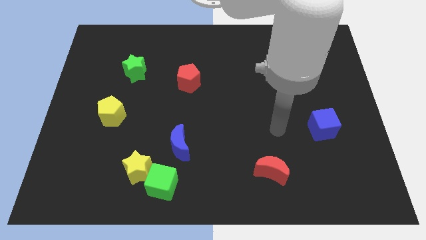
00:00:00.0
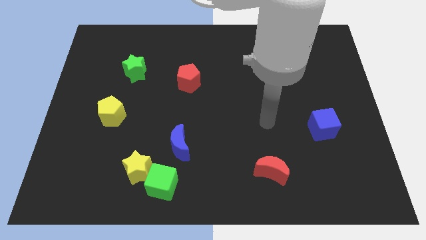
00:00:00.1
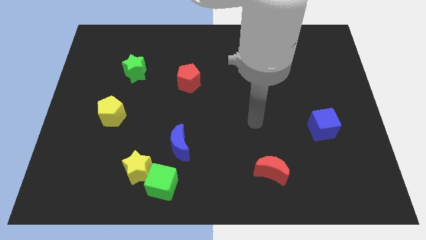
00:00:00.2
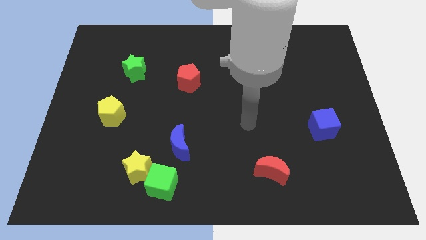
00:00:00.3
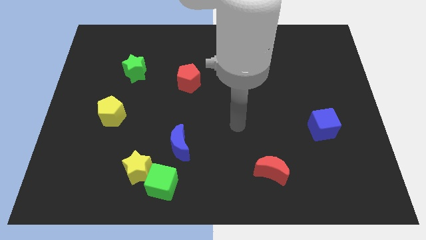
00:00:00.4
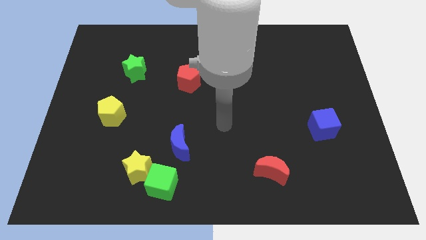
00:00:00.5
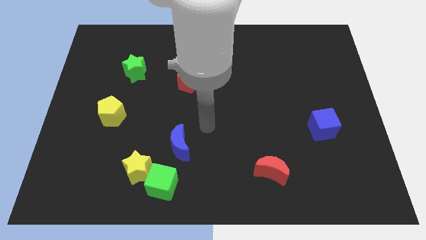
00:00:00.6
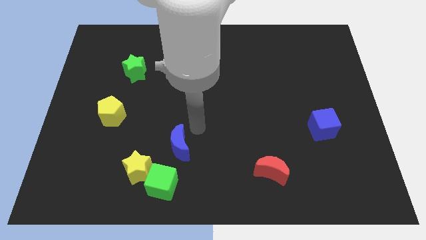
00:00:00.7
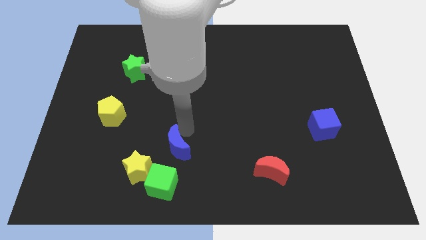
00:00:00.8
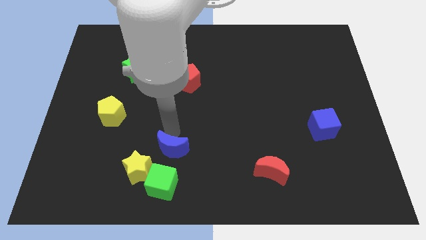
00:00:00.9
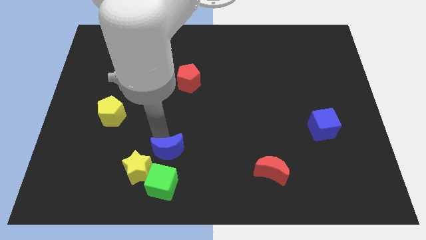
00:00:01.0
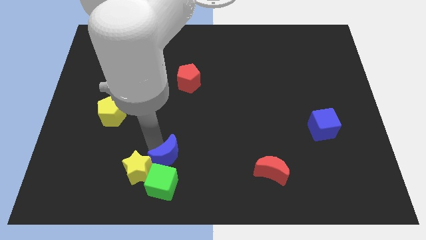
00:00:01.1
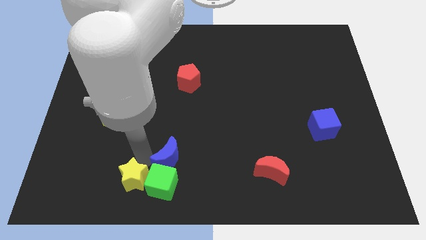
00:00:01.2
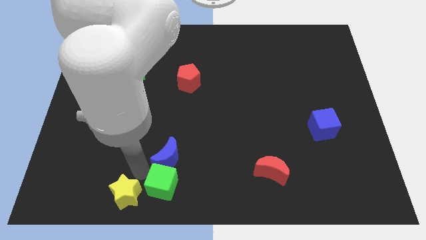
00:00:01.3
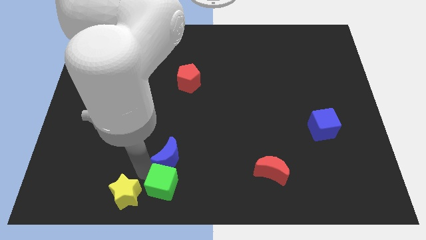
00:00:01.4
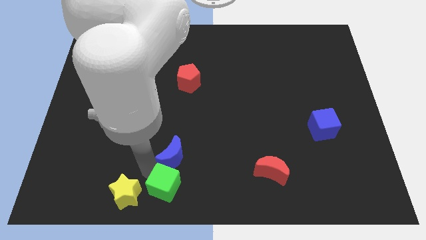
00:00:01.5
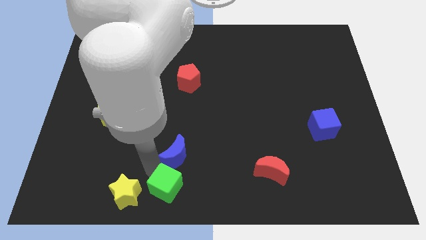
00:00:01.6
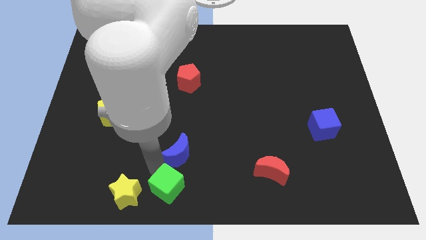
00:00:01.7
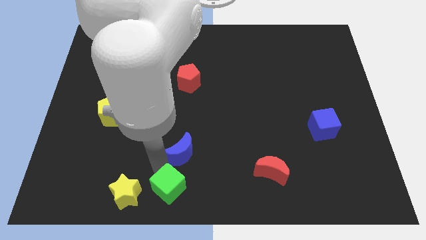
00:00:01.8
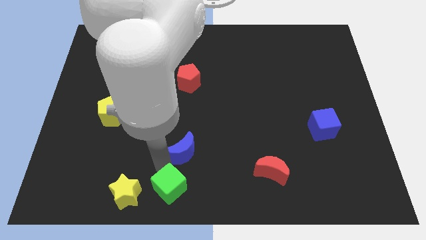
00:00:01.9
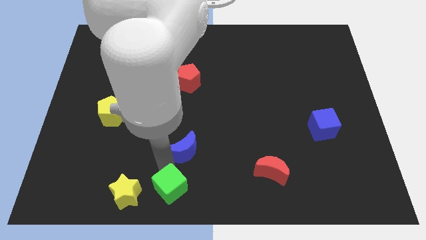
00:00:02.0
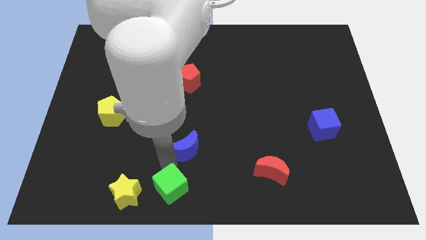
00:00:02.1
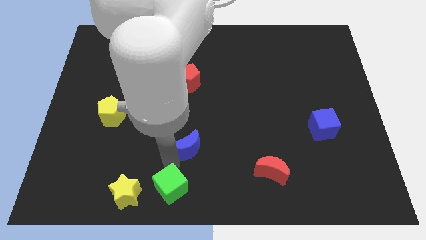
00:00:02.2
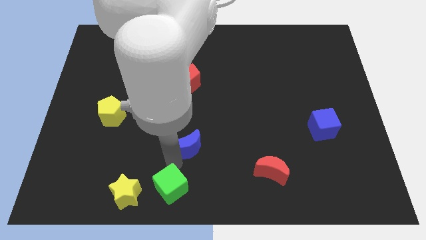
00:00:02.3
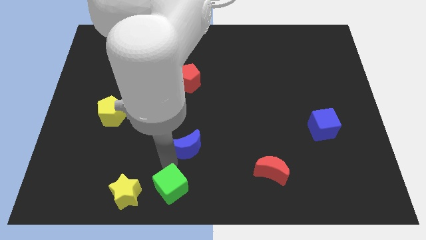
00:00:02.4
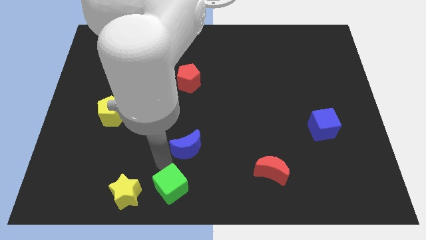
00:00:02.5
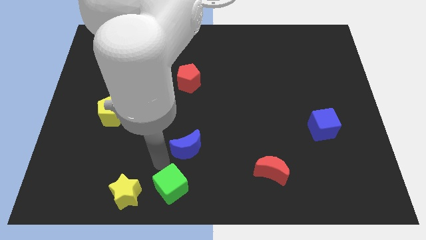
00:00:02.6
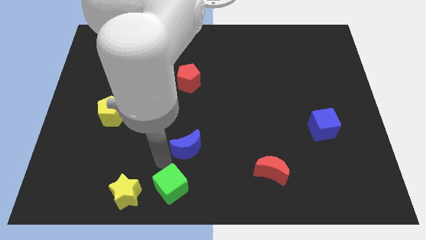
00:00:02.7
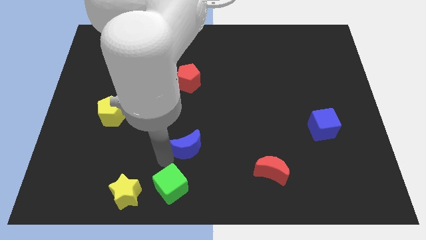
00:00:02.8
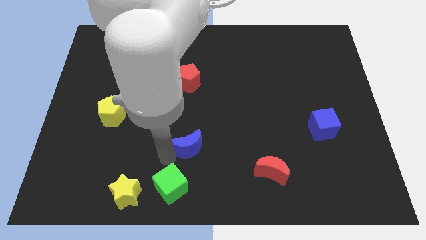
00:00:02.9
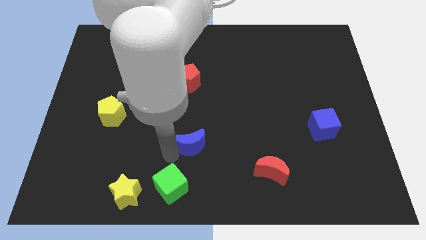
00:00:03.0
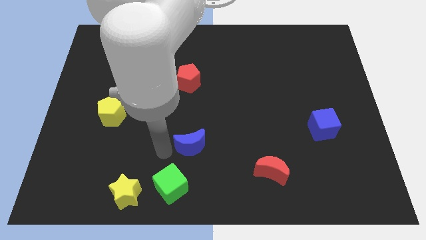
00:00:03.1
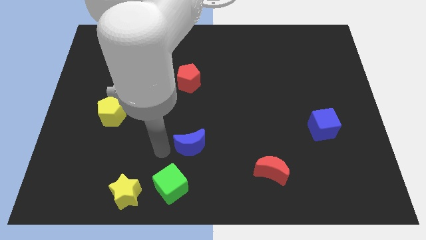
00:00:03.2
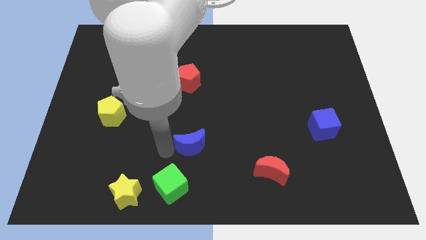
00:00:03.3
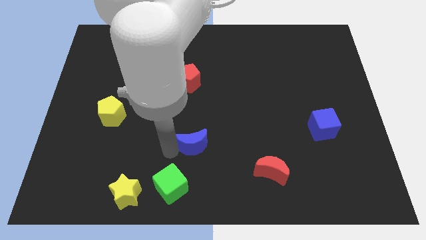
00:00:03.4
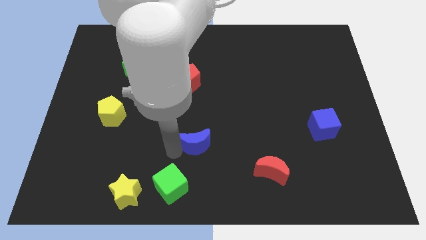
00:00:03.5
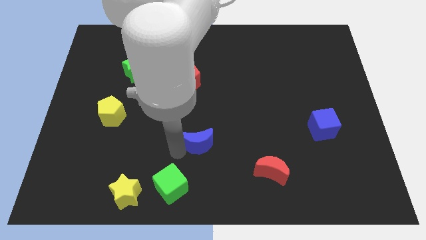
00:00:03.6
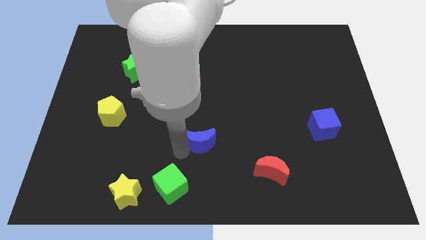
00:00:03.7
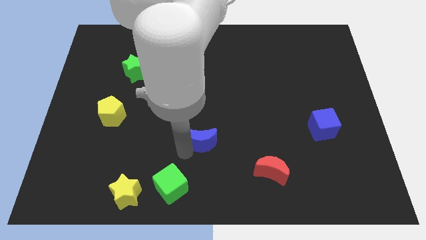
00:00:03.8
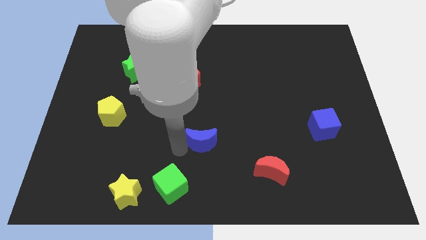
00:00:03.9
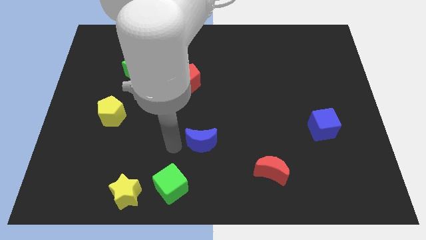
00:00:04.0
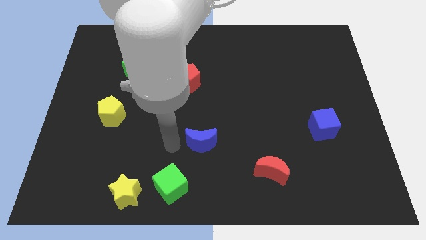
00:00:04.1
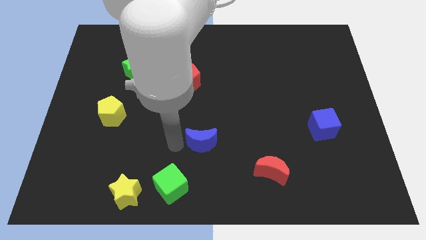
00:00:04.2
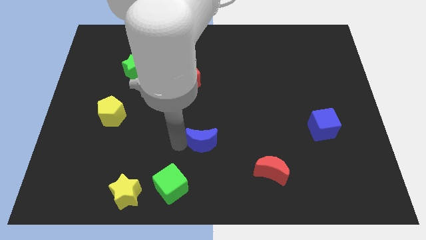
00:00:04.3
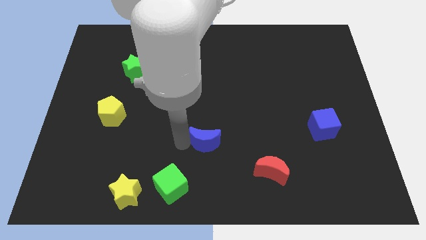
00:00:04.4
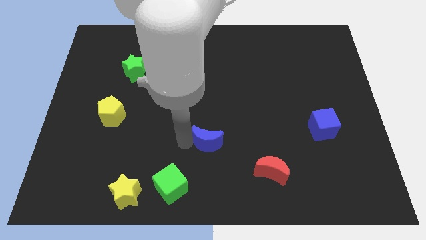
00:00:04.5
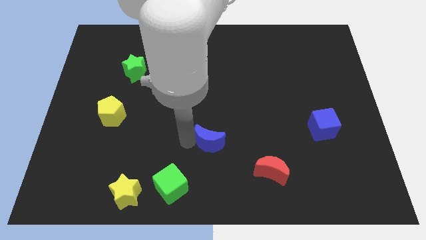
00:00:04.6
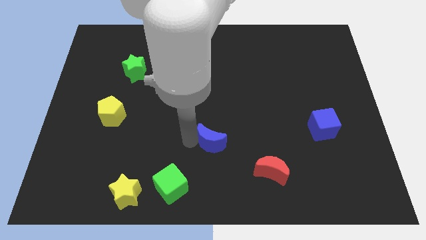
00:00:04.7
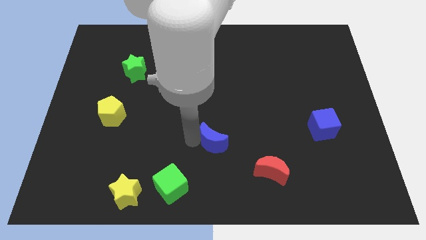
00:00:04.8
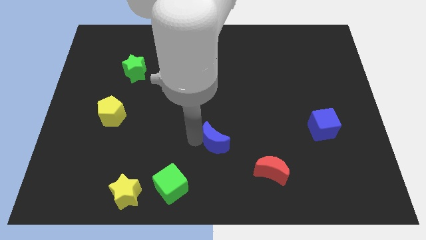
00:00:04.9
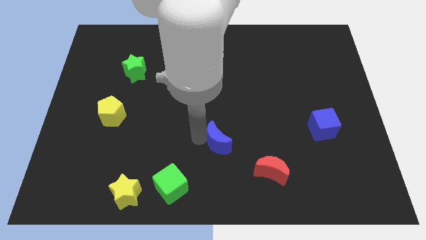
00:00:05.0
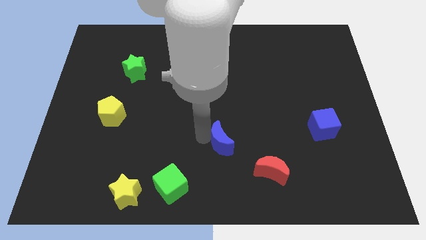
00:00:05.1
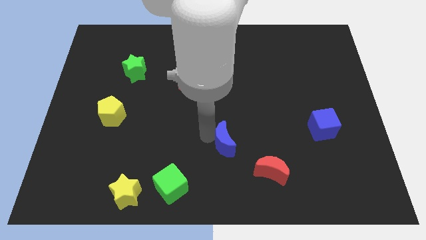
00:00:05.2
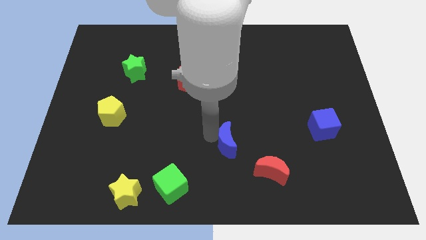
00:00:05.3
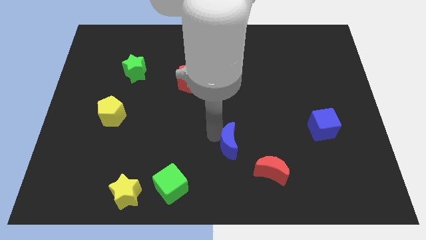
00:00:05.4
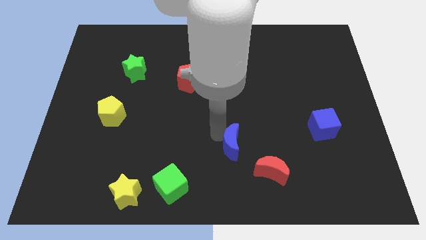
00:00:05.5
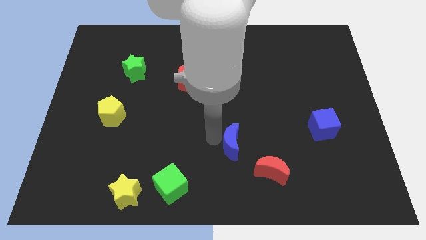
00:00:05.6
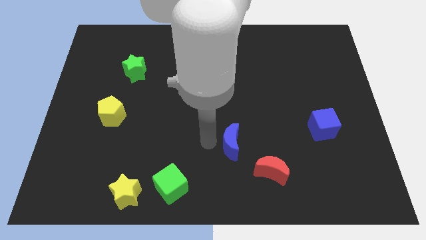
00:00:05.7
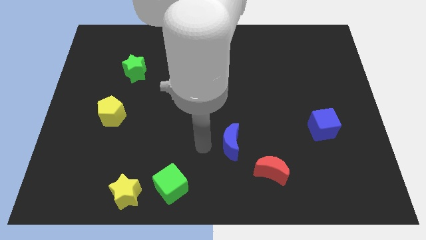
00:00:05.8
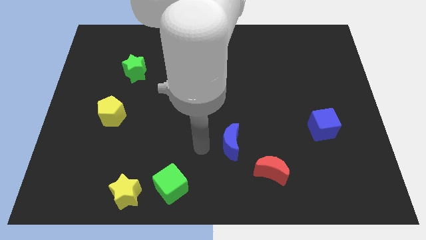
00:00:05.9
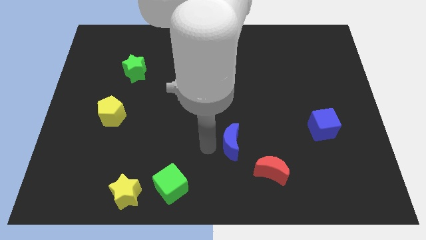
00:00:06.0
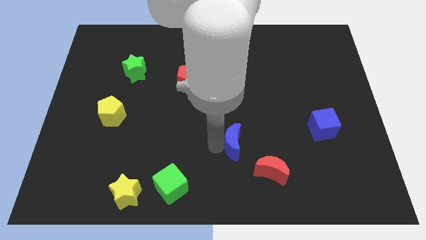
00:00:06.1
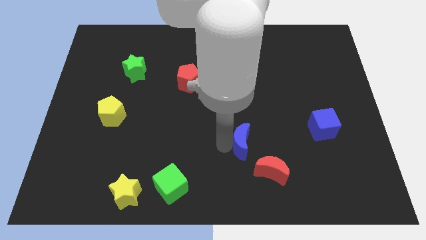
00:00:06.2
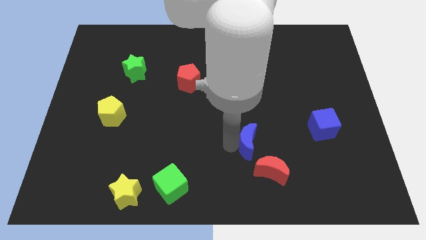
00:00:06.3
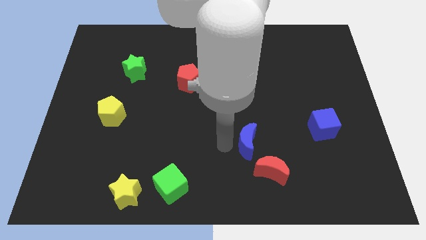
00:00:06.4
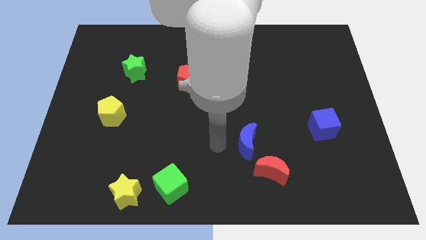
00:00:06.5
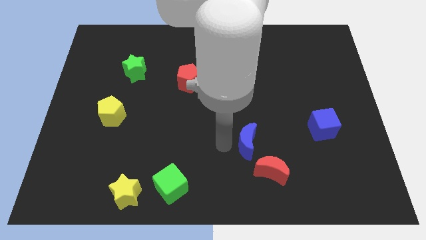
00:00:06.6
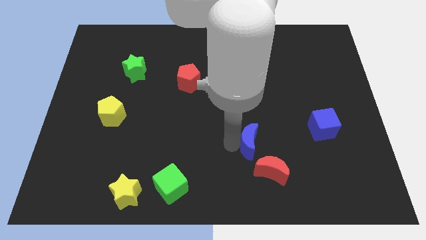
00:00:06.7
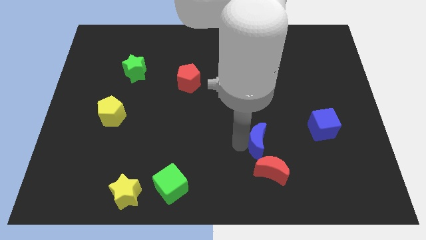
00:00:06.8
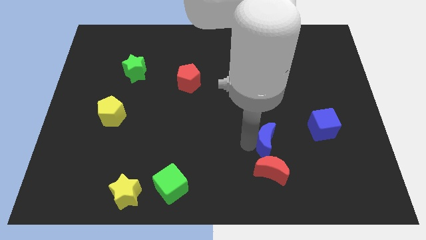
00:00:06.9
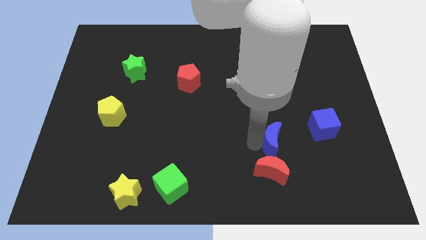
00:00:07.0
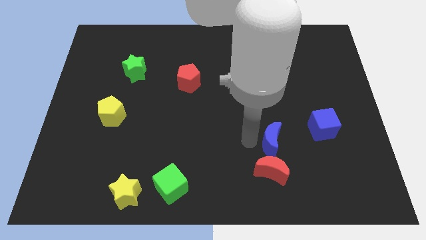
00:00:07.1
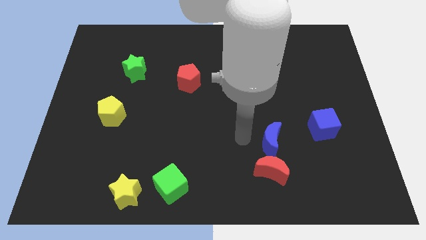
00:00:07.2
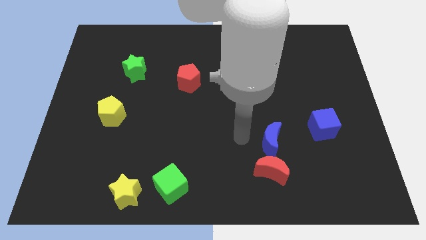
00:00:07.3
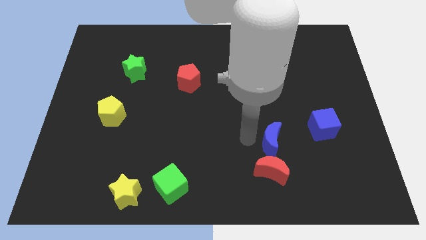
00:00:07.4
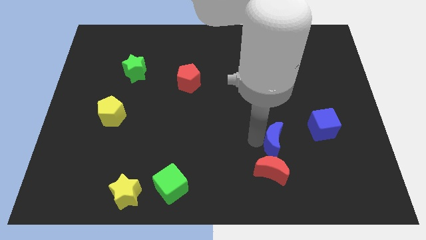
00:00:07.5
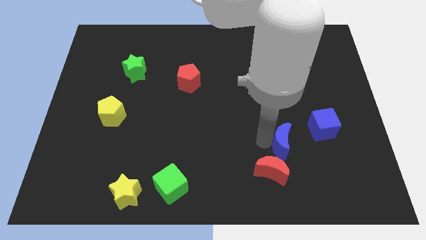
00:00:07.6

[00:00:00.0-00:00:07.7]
move the blue moon to the bottom left side of the blue cube
